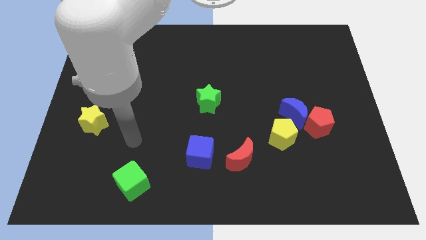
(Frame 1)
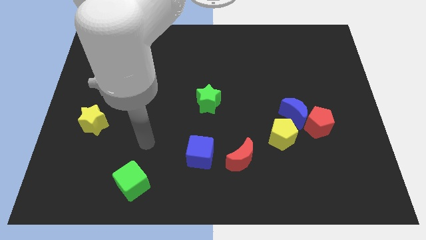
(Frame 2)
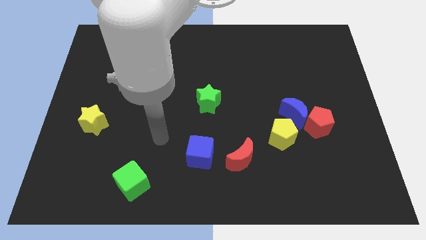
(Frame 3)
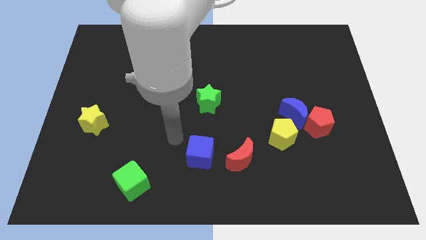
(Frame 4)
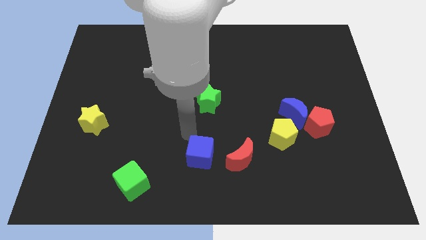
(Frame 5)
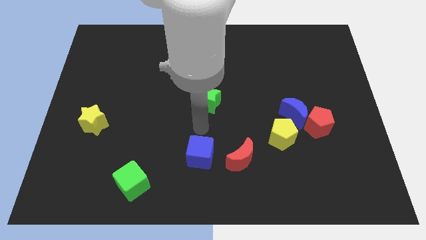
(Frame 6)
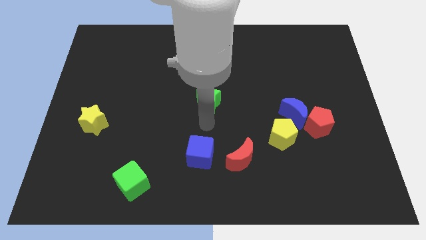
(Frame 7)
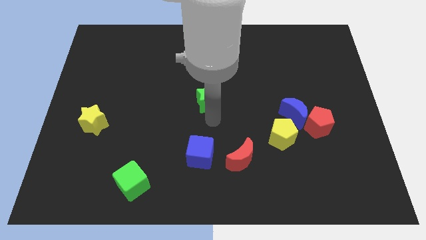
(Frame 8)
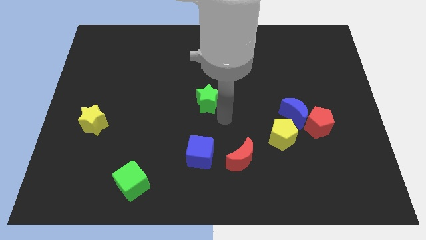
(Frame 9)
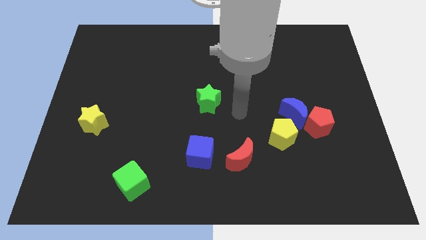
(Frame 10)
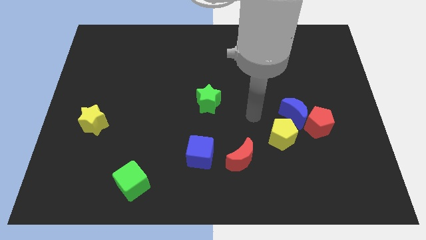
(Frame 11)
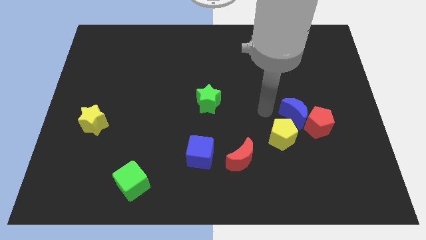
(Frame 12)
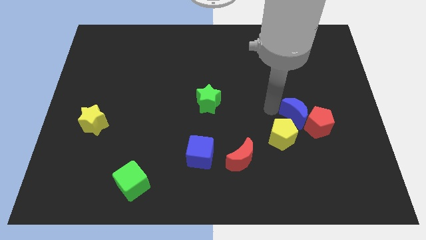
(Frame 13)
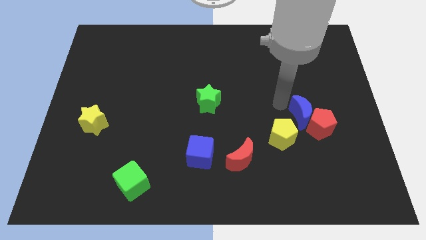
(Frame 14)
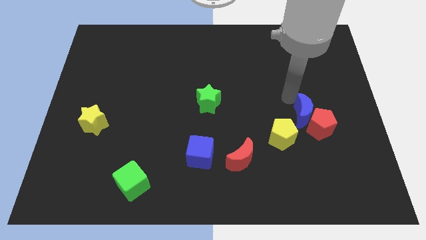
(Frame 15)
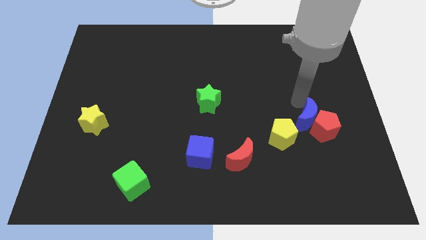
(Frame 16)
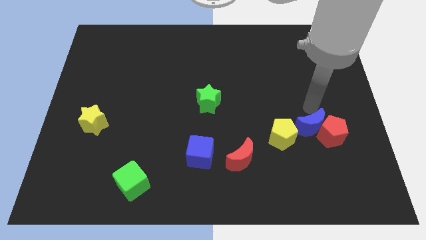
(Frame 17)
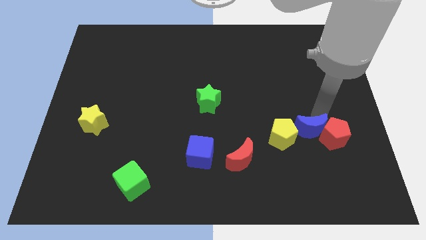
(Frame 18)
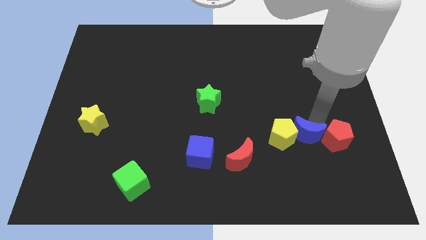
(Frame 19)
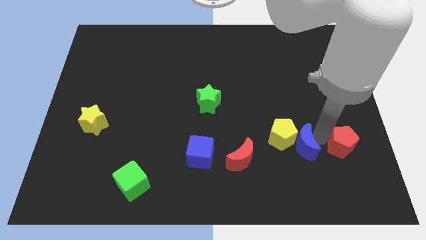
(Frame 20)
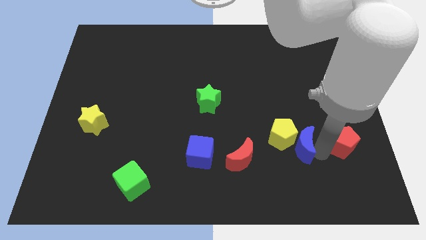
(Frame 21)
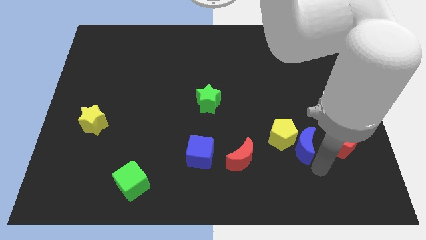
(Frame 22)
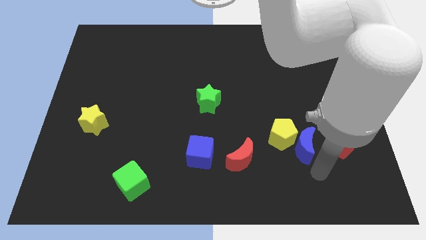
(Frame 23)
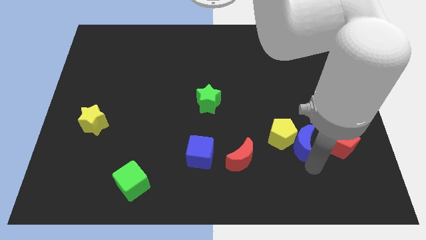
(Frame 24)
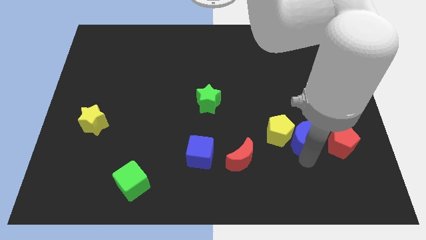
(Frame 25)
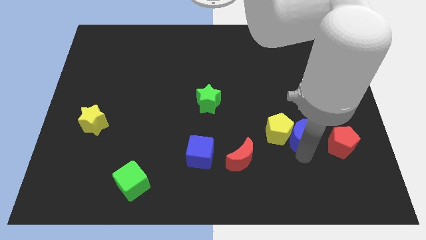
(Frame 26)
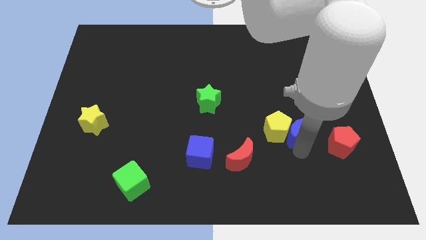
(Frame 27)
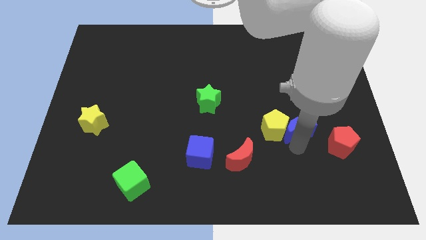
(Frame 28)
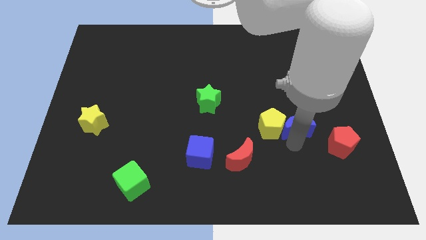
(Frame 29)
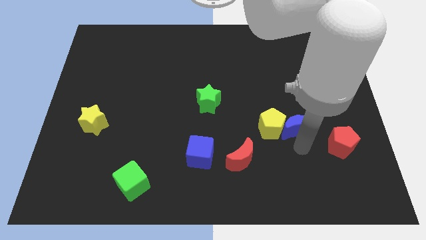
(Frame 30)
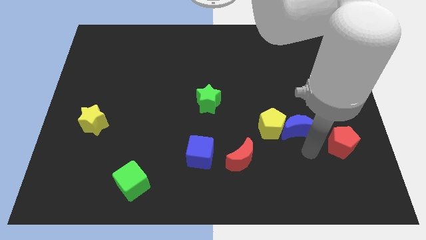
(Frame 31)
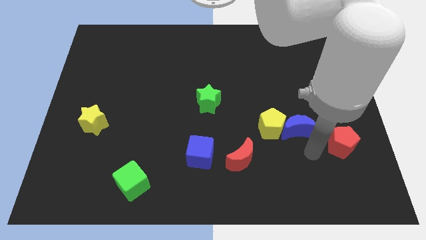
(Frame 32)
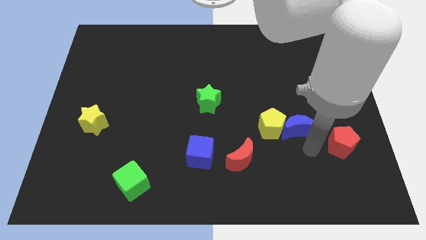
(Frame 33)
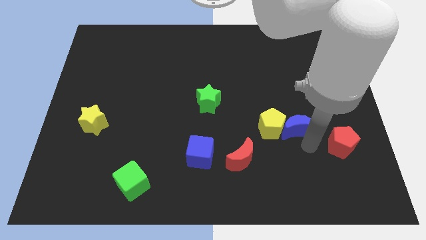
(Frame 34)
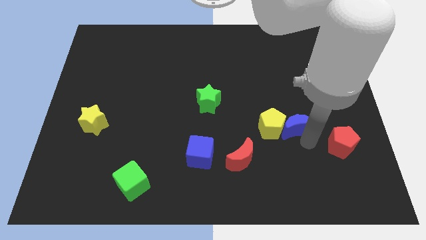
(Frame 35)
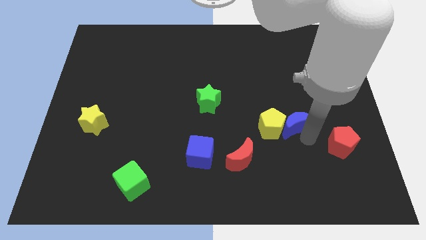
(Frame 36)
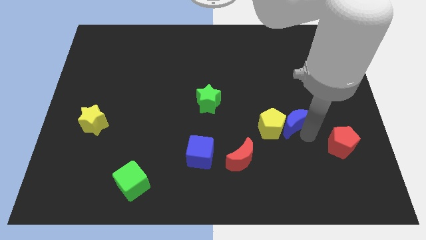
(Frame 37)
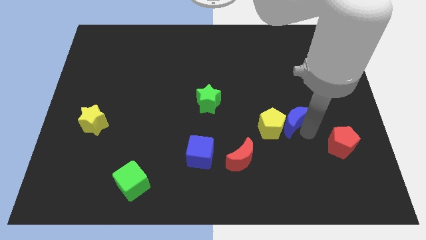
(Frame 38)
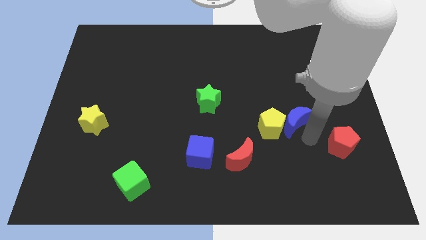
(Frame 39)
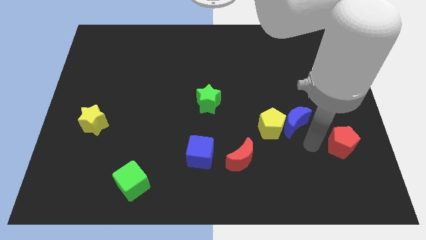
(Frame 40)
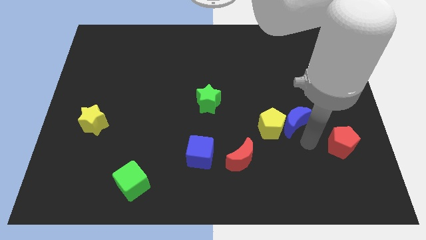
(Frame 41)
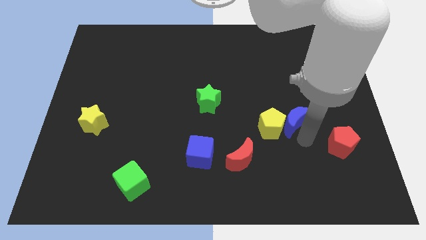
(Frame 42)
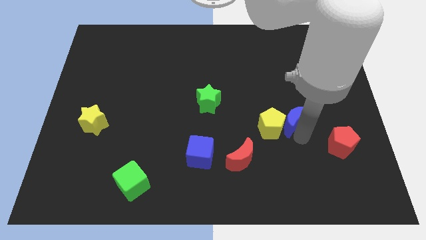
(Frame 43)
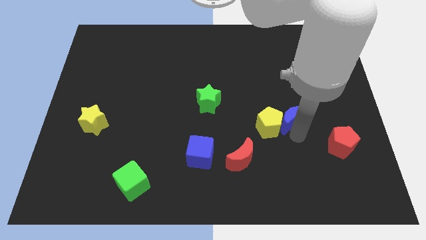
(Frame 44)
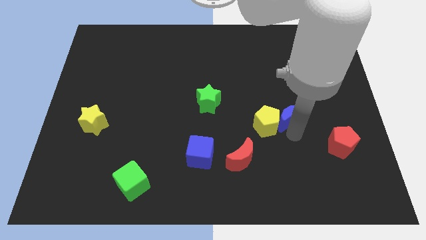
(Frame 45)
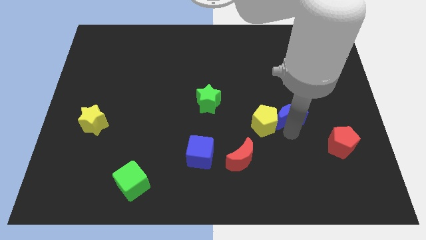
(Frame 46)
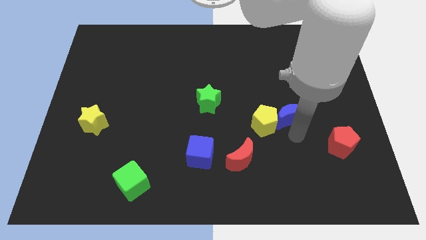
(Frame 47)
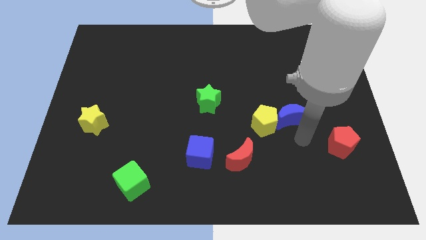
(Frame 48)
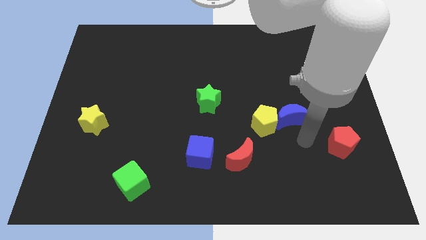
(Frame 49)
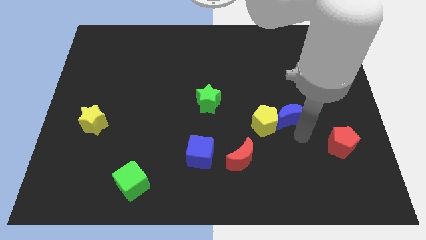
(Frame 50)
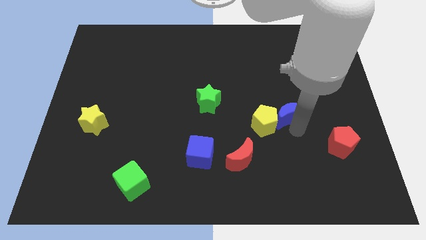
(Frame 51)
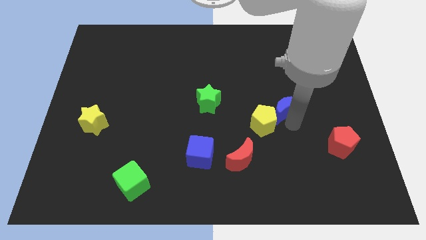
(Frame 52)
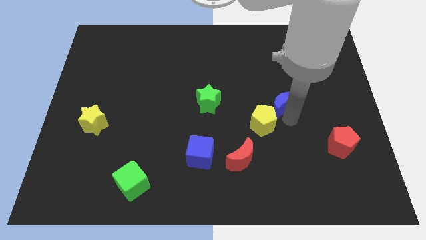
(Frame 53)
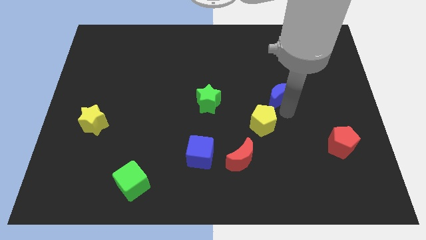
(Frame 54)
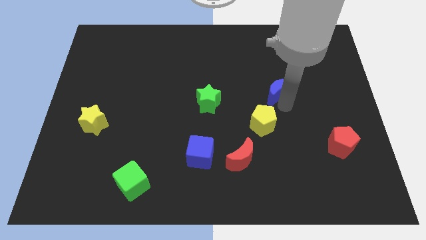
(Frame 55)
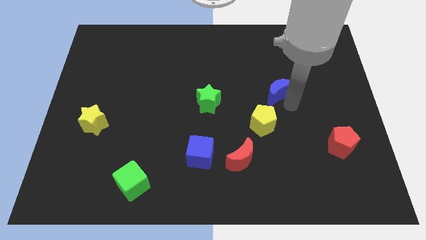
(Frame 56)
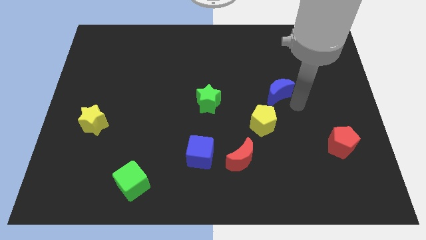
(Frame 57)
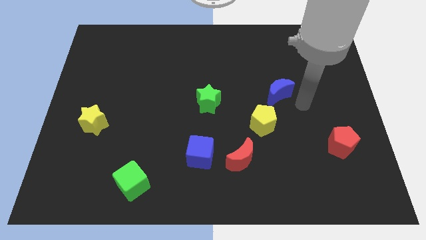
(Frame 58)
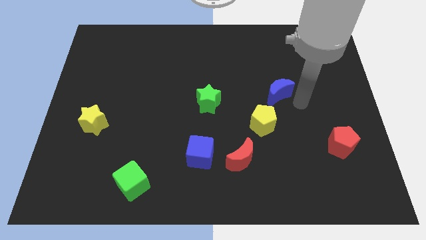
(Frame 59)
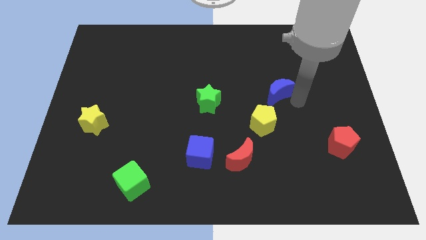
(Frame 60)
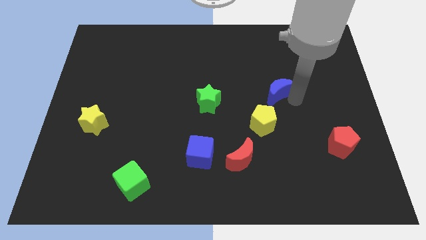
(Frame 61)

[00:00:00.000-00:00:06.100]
slide the blue moon somewhat upwards and to the left diagonally

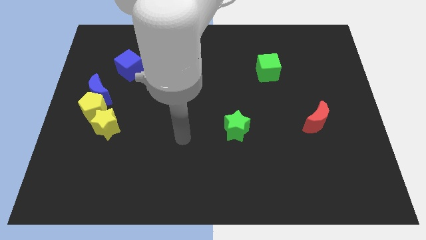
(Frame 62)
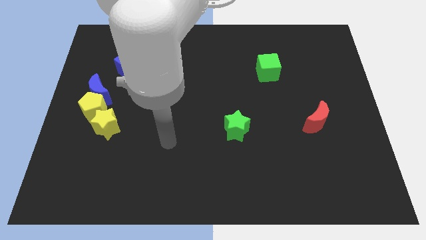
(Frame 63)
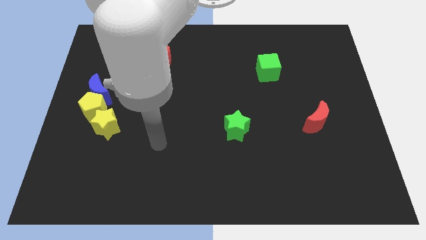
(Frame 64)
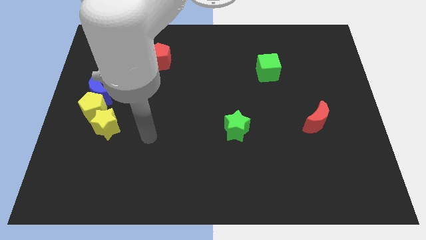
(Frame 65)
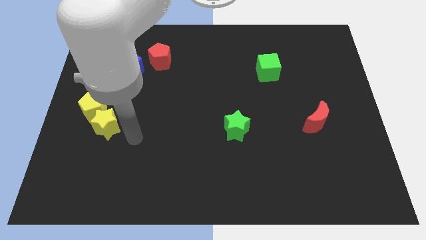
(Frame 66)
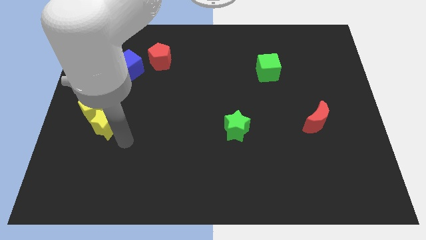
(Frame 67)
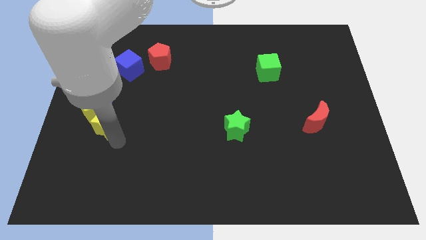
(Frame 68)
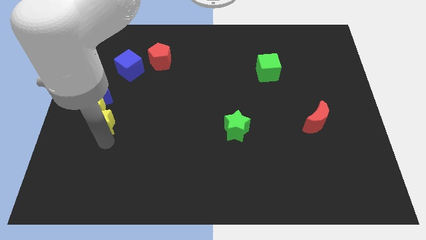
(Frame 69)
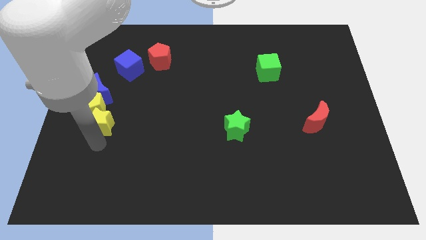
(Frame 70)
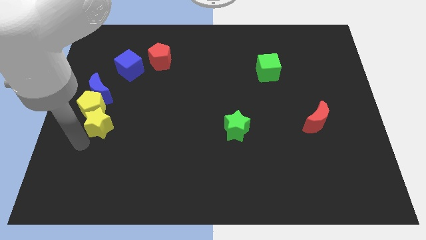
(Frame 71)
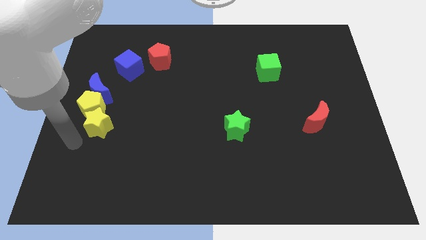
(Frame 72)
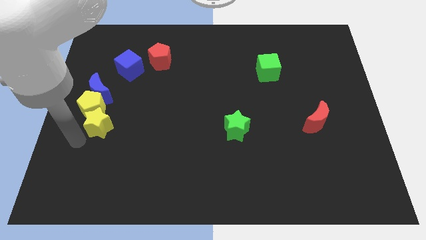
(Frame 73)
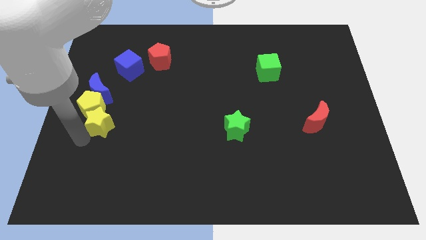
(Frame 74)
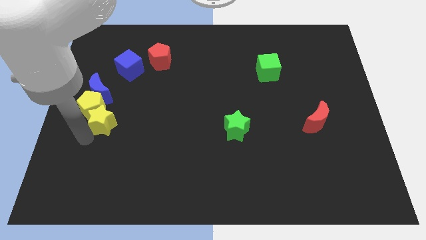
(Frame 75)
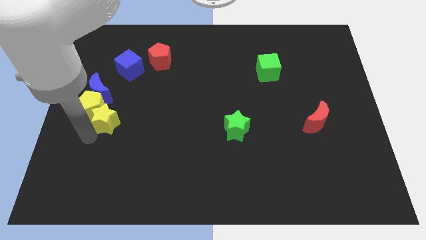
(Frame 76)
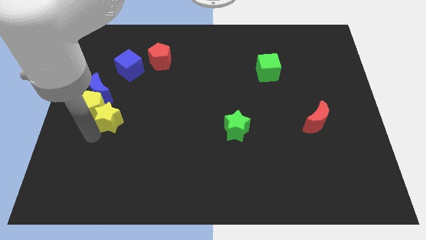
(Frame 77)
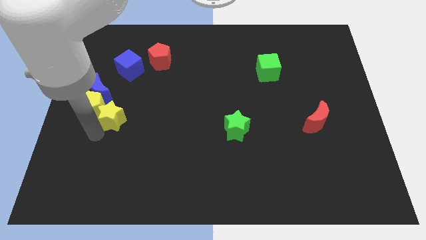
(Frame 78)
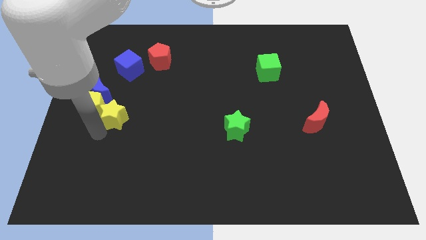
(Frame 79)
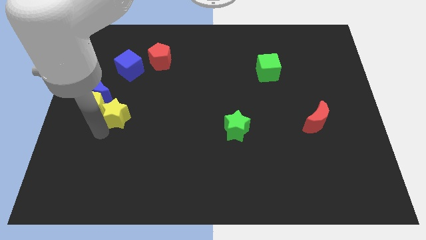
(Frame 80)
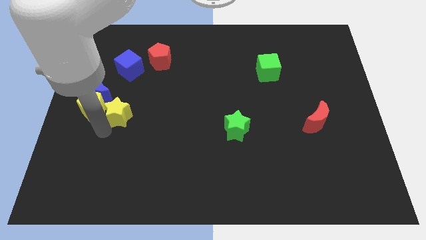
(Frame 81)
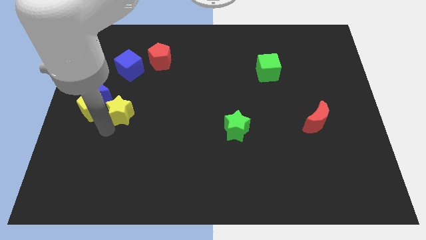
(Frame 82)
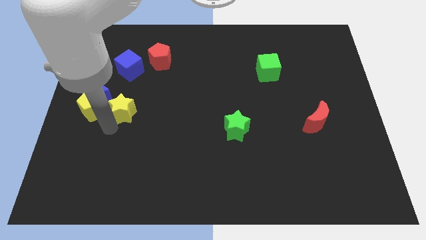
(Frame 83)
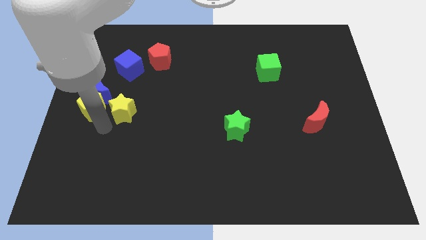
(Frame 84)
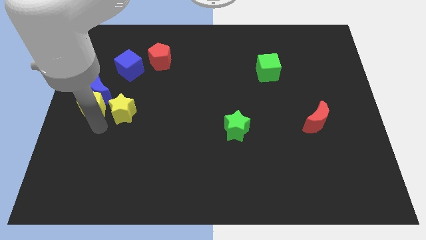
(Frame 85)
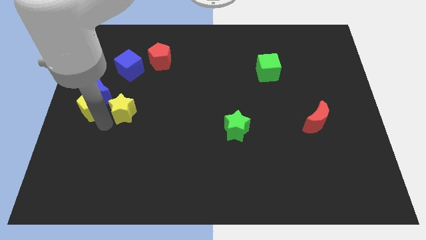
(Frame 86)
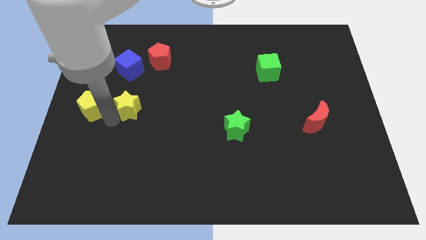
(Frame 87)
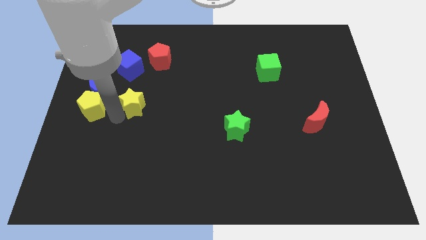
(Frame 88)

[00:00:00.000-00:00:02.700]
push the yellow star diagonally upwards and right a little bit
